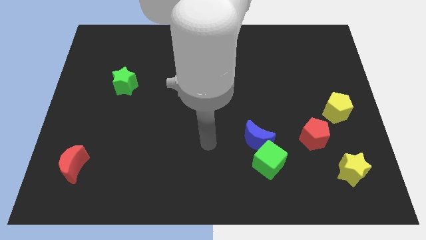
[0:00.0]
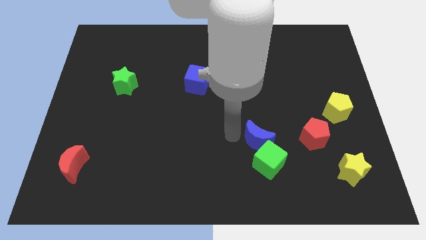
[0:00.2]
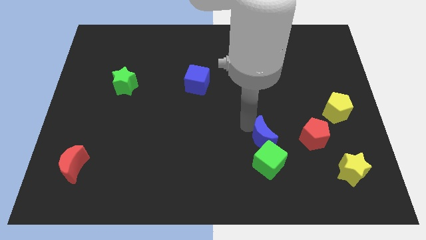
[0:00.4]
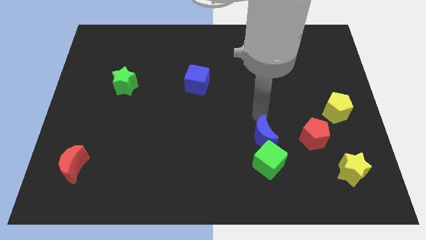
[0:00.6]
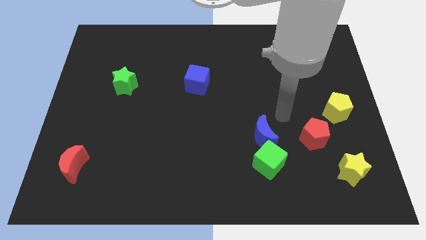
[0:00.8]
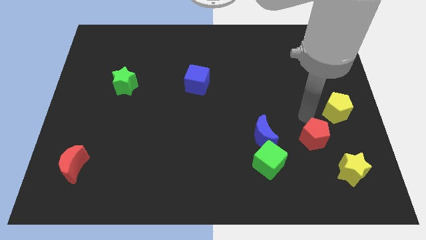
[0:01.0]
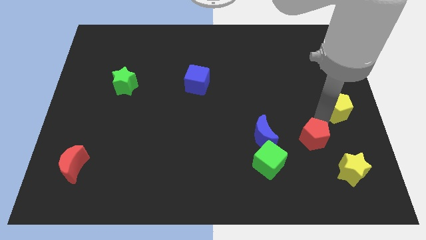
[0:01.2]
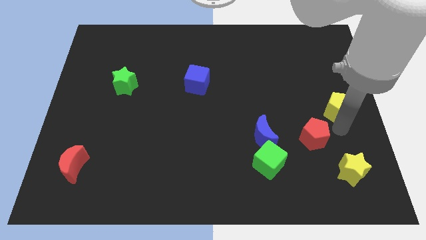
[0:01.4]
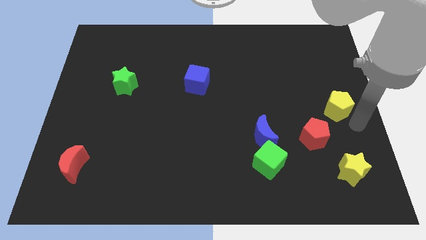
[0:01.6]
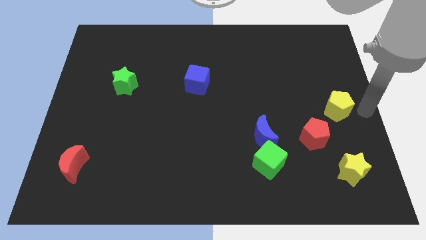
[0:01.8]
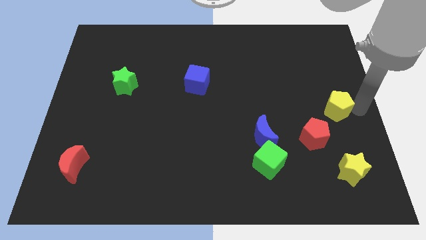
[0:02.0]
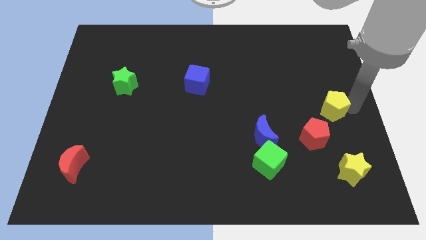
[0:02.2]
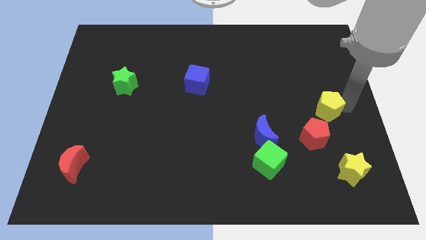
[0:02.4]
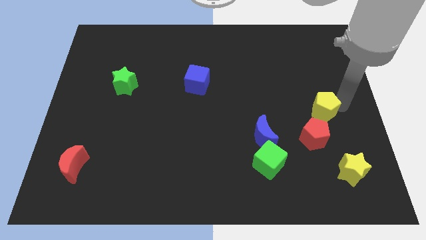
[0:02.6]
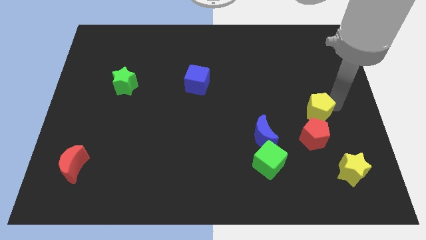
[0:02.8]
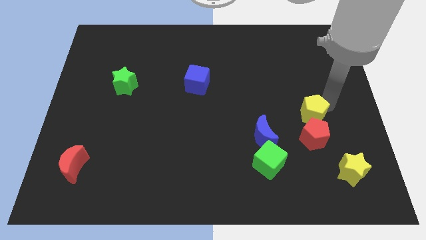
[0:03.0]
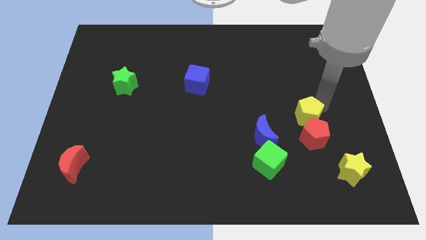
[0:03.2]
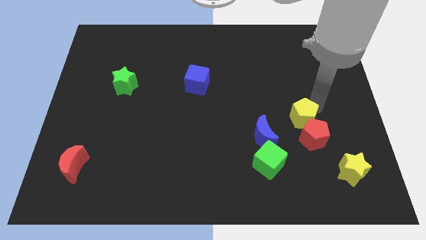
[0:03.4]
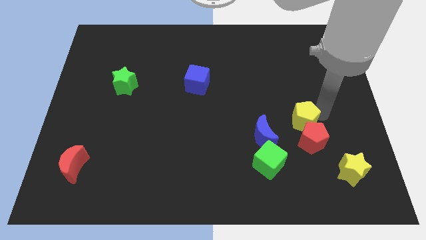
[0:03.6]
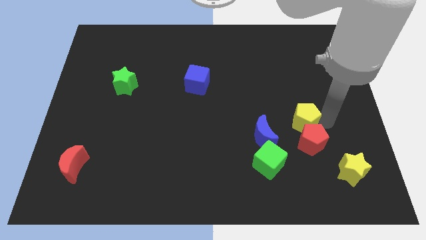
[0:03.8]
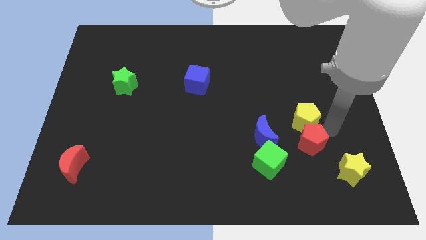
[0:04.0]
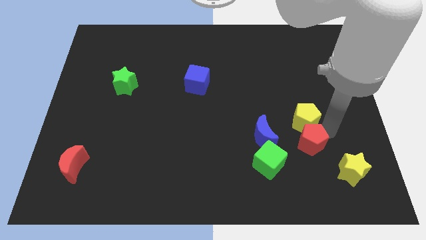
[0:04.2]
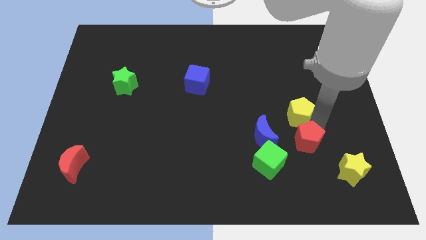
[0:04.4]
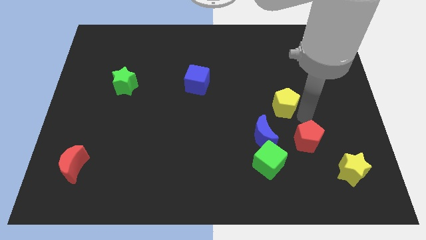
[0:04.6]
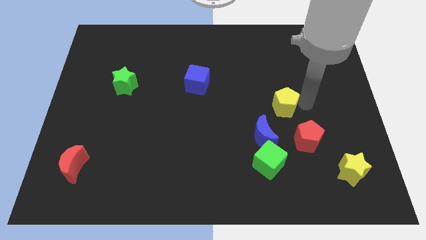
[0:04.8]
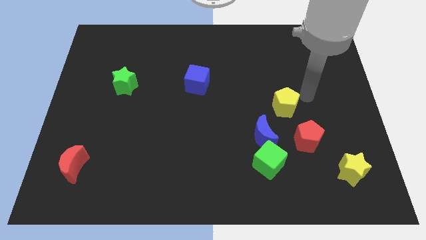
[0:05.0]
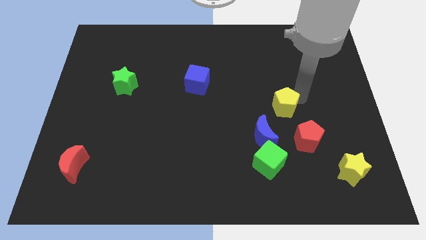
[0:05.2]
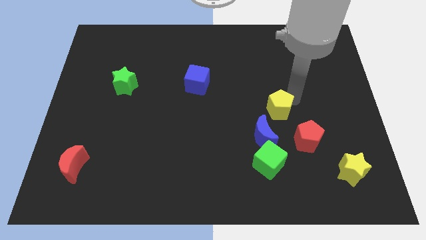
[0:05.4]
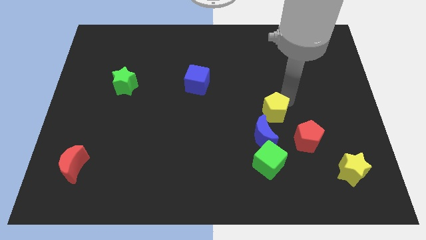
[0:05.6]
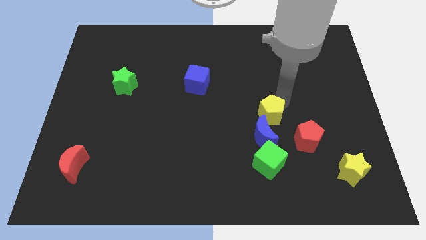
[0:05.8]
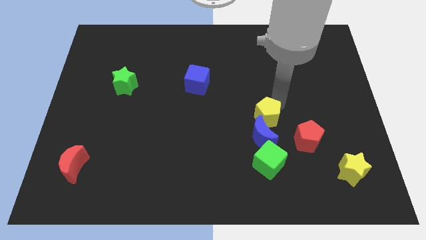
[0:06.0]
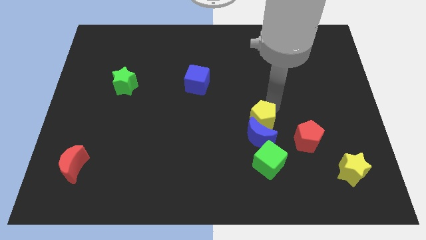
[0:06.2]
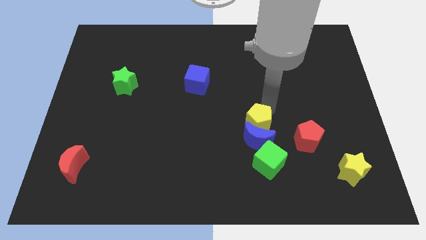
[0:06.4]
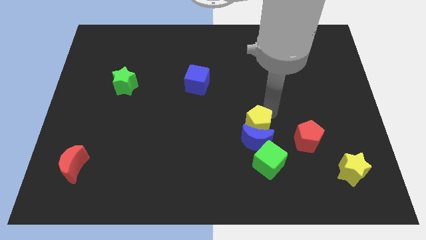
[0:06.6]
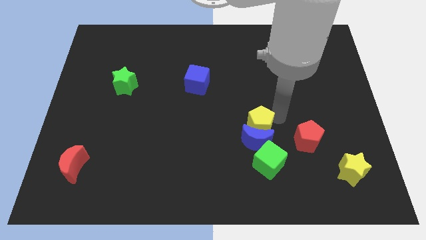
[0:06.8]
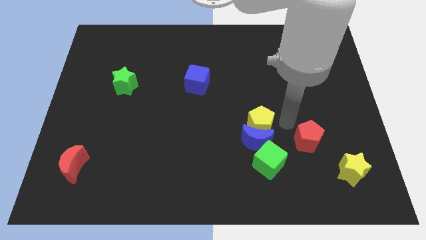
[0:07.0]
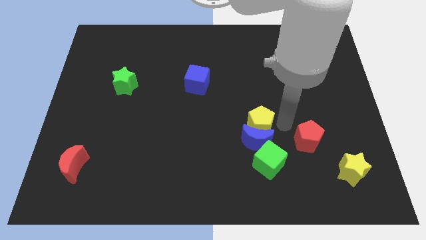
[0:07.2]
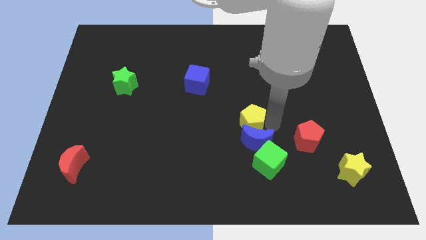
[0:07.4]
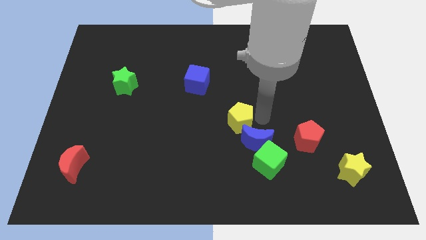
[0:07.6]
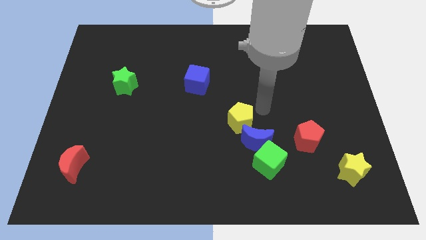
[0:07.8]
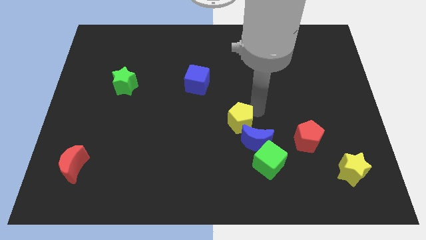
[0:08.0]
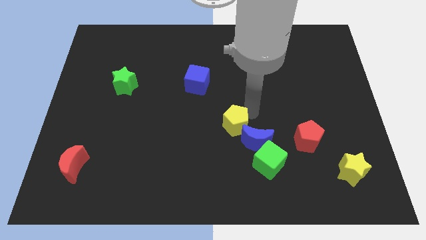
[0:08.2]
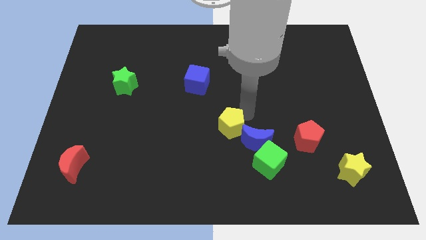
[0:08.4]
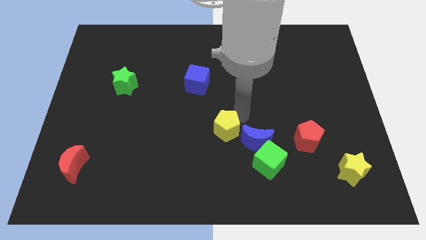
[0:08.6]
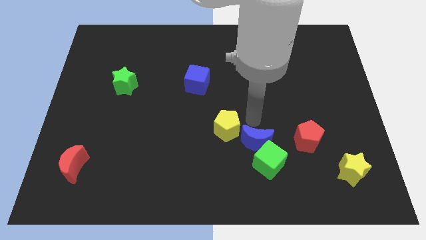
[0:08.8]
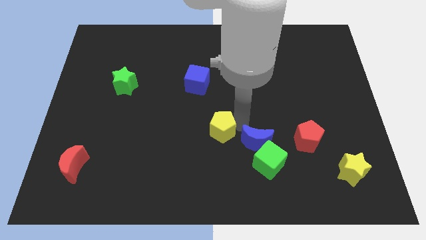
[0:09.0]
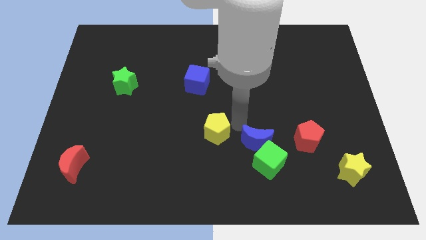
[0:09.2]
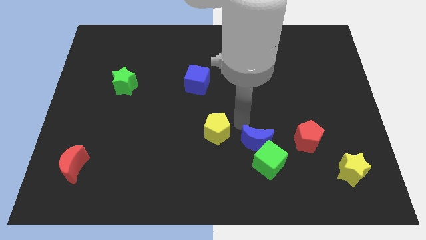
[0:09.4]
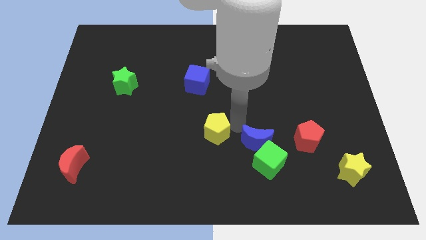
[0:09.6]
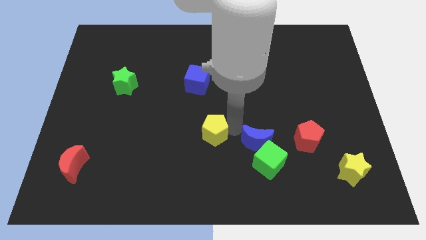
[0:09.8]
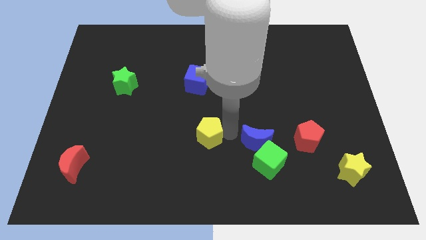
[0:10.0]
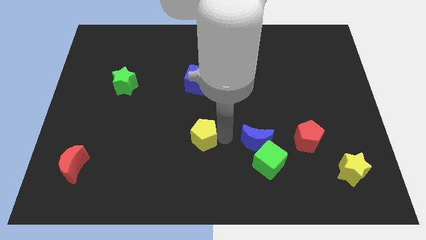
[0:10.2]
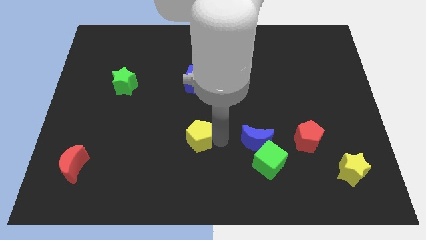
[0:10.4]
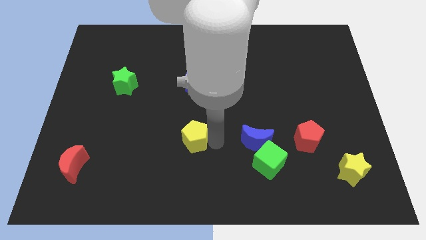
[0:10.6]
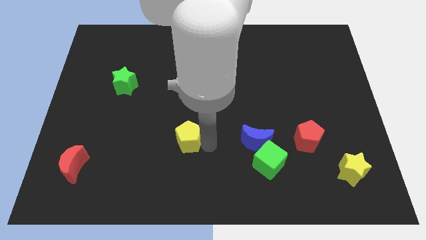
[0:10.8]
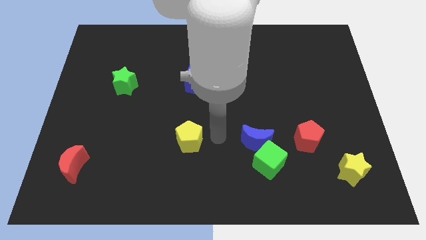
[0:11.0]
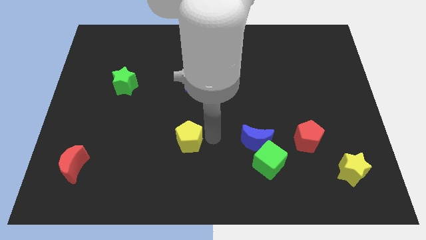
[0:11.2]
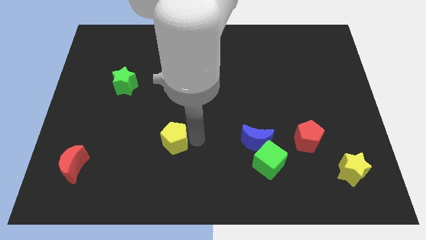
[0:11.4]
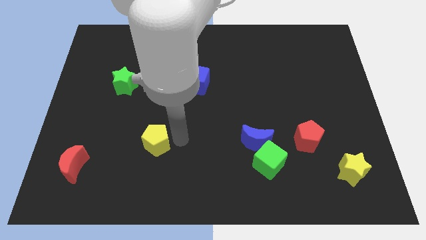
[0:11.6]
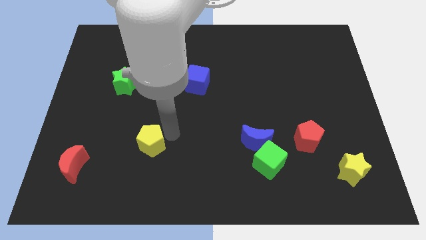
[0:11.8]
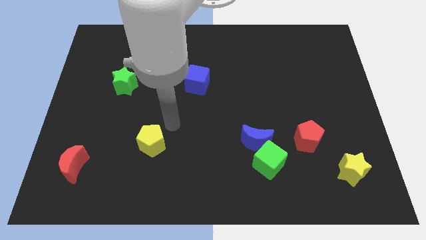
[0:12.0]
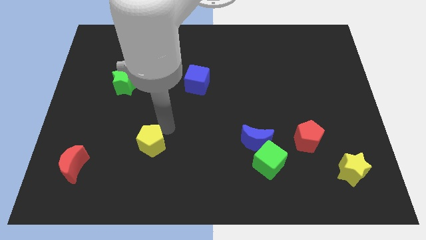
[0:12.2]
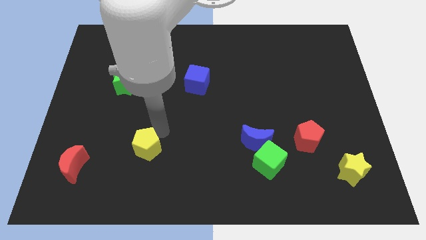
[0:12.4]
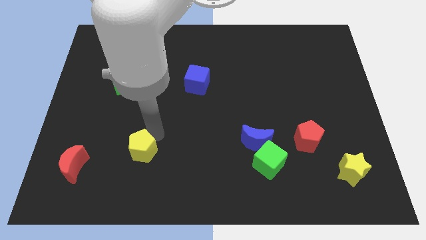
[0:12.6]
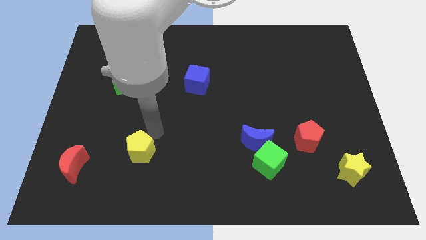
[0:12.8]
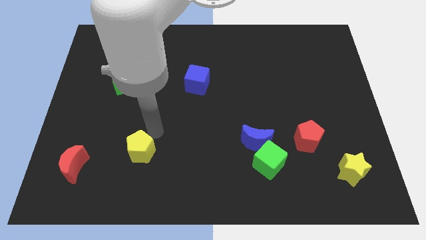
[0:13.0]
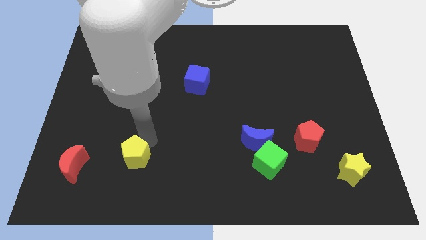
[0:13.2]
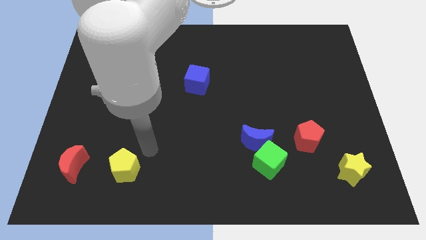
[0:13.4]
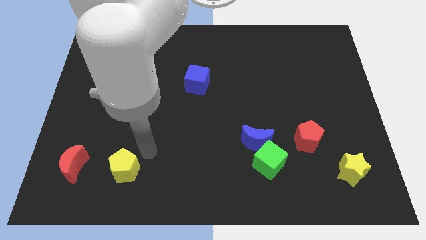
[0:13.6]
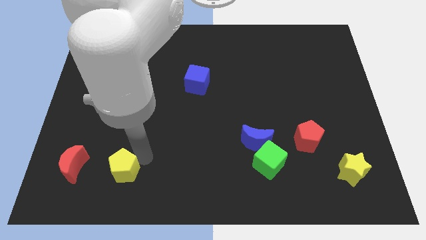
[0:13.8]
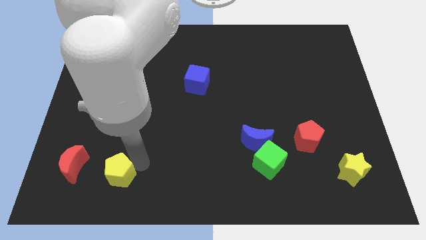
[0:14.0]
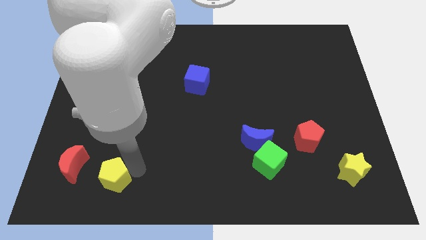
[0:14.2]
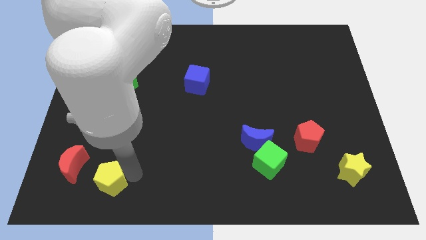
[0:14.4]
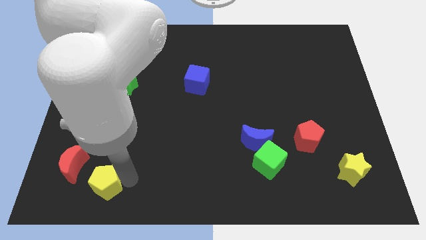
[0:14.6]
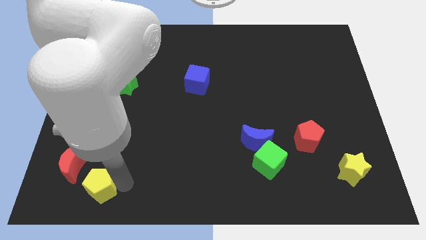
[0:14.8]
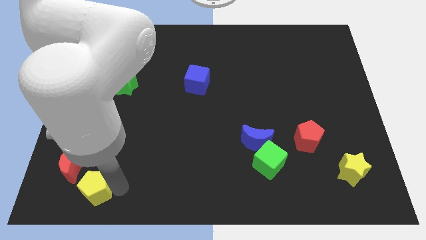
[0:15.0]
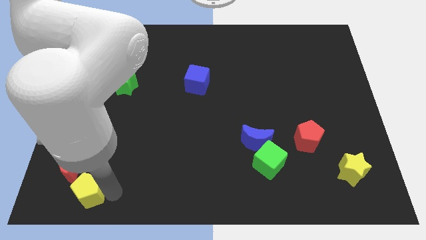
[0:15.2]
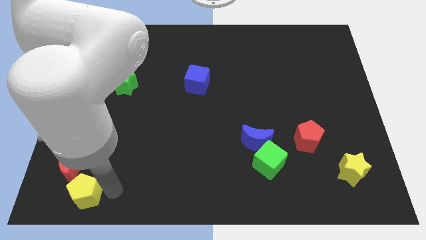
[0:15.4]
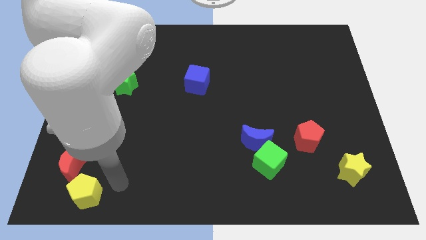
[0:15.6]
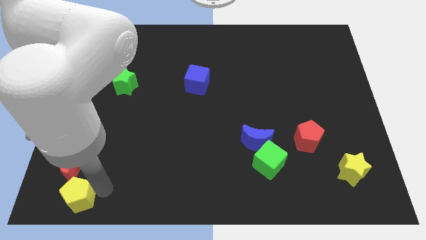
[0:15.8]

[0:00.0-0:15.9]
move the yellow pentagon to the bottom left corner
